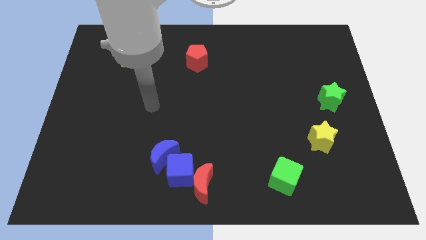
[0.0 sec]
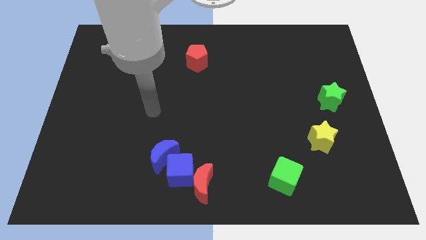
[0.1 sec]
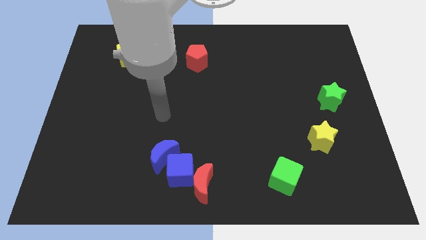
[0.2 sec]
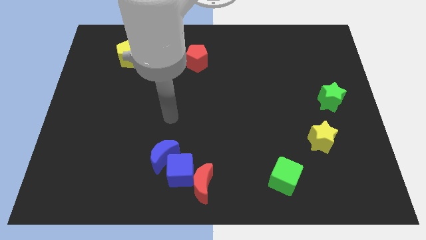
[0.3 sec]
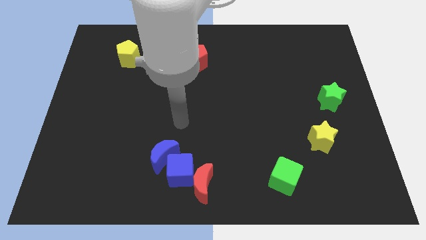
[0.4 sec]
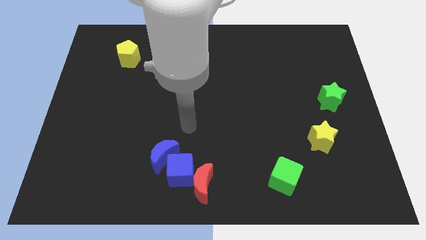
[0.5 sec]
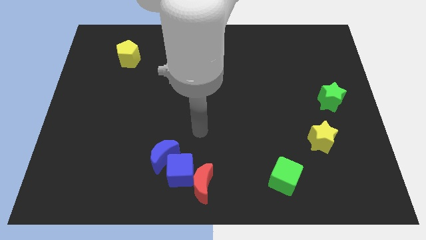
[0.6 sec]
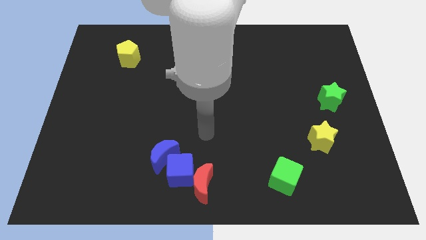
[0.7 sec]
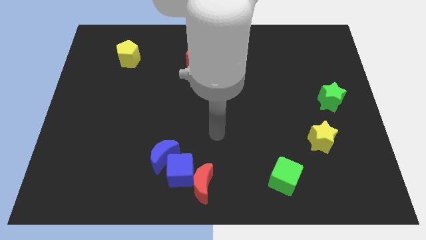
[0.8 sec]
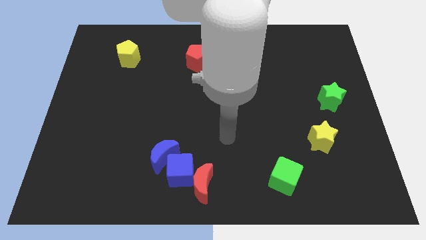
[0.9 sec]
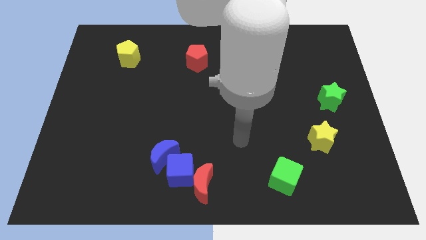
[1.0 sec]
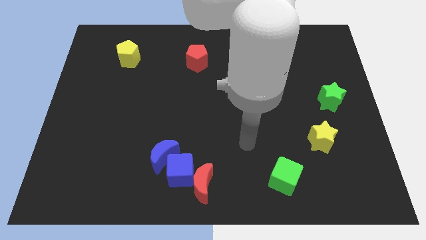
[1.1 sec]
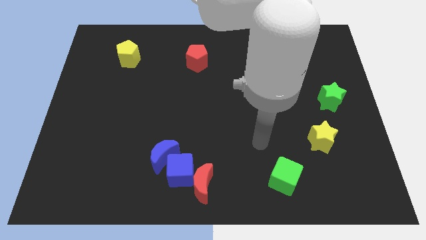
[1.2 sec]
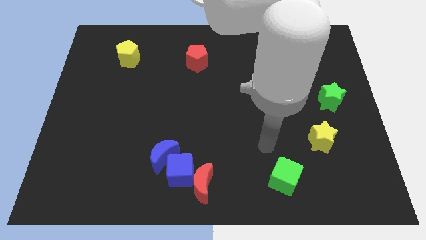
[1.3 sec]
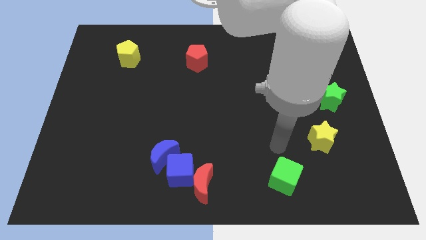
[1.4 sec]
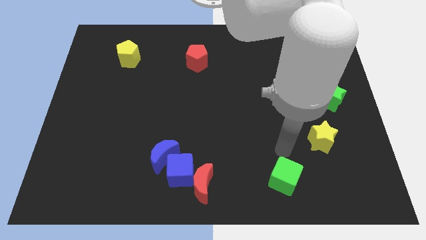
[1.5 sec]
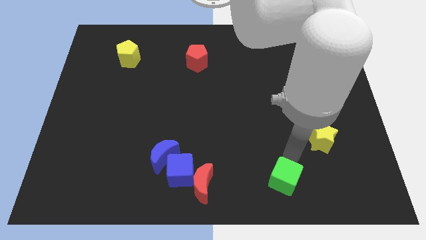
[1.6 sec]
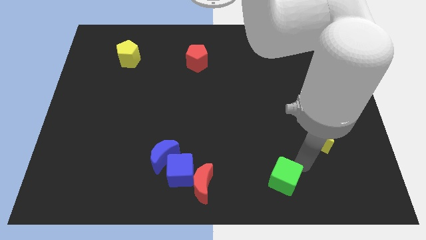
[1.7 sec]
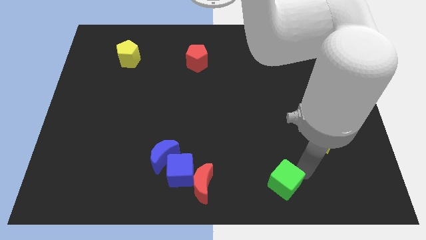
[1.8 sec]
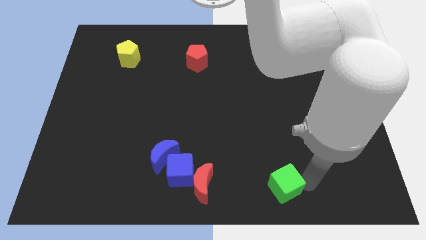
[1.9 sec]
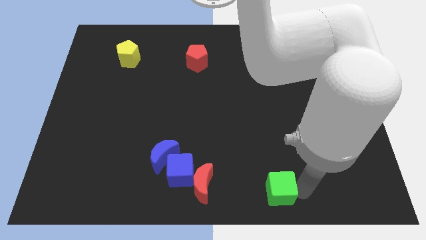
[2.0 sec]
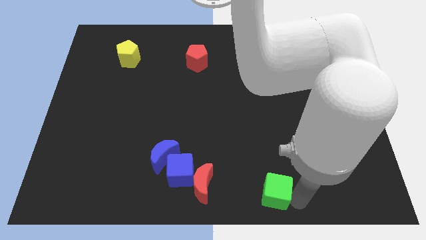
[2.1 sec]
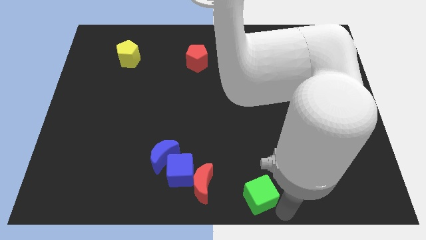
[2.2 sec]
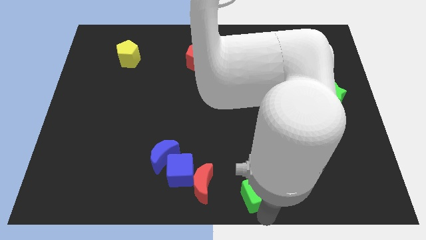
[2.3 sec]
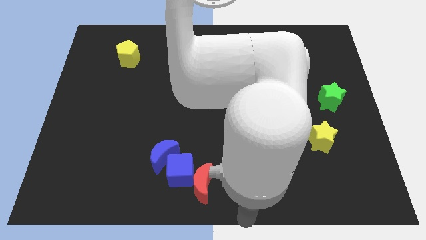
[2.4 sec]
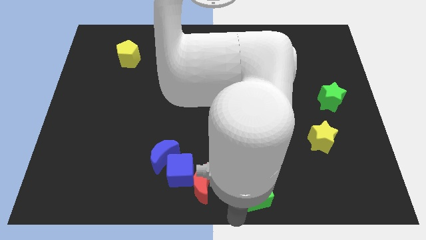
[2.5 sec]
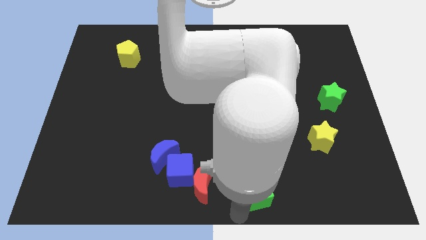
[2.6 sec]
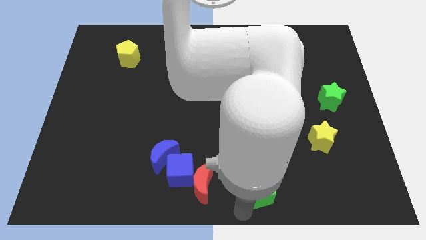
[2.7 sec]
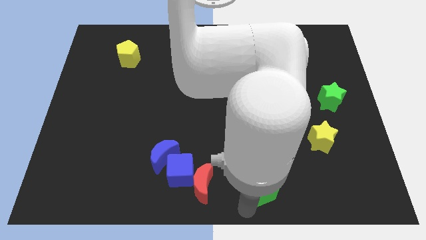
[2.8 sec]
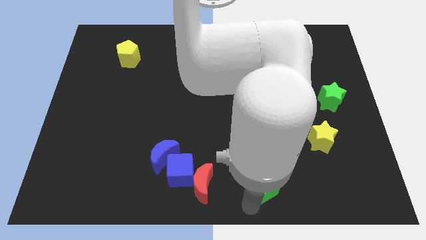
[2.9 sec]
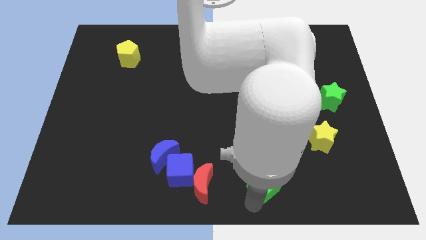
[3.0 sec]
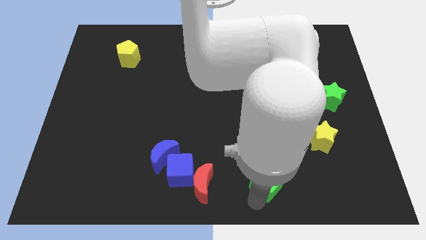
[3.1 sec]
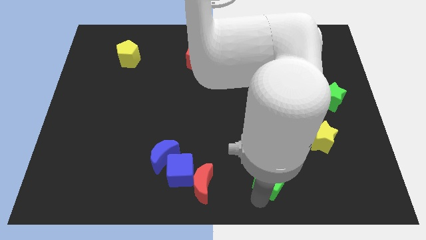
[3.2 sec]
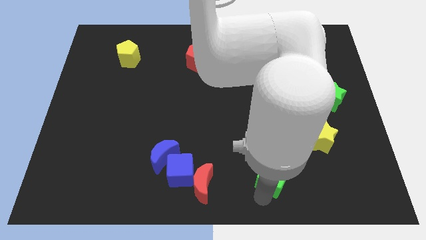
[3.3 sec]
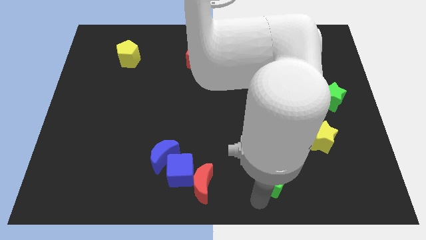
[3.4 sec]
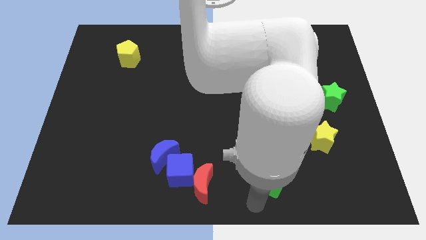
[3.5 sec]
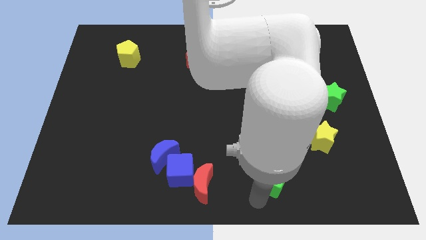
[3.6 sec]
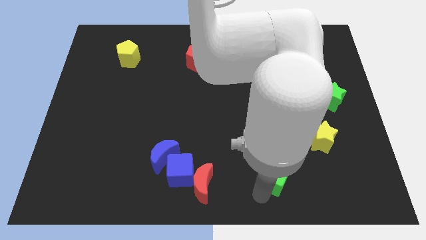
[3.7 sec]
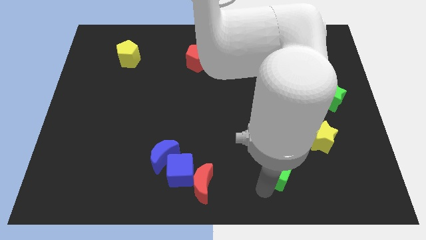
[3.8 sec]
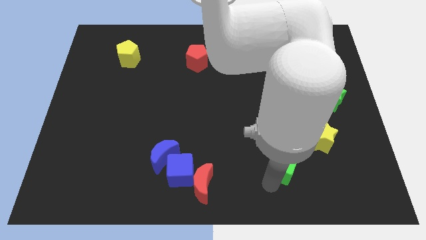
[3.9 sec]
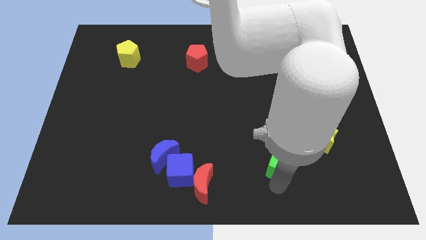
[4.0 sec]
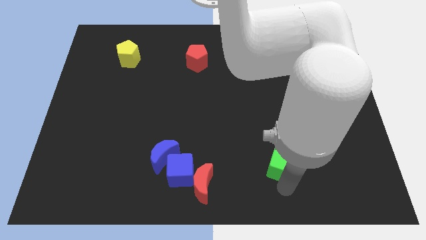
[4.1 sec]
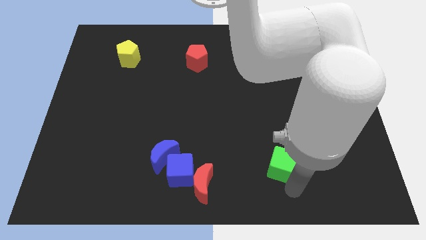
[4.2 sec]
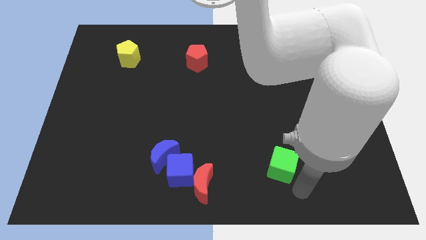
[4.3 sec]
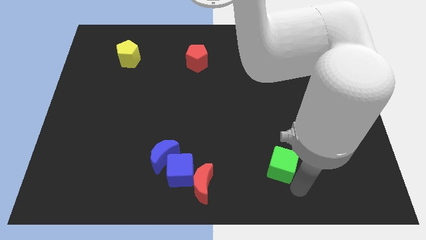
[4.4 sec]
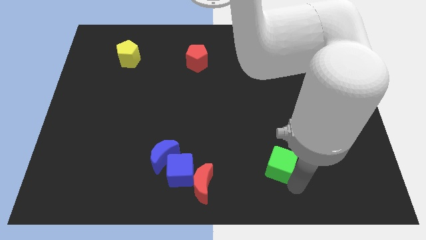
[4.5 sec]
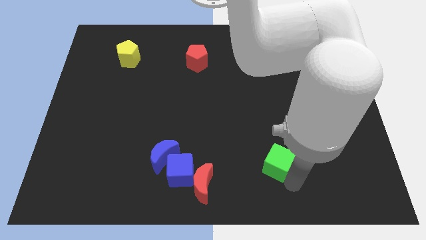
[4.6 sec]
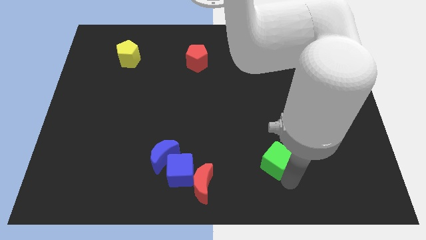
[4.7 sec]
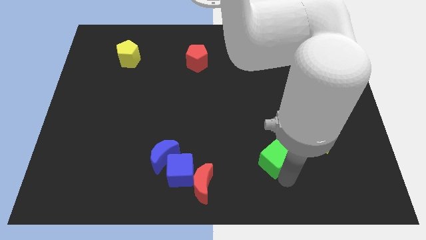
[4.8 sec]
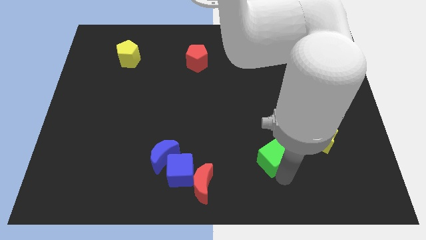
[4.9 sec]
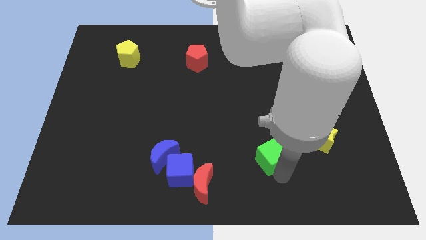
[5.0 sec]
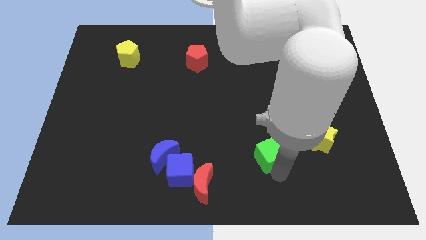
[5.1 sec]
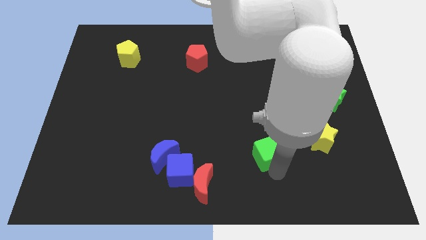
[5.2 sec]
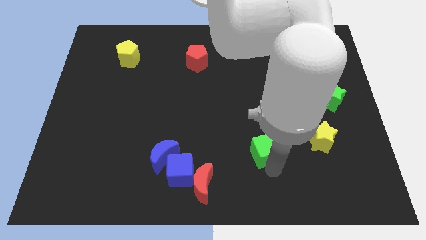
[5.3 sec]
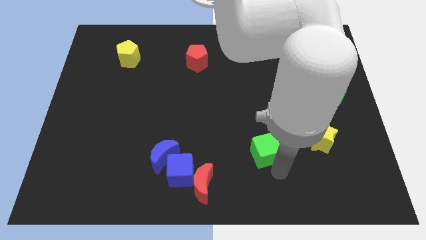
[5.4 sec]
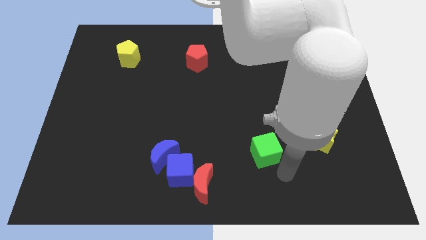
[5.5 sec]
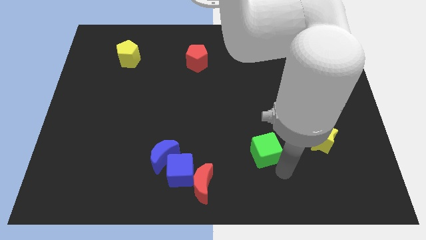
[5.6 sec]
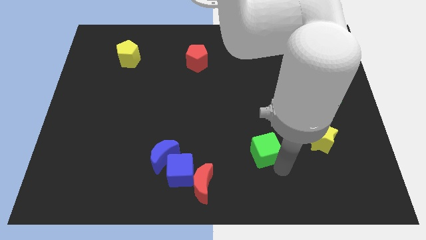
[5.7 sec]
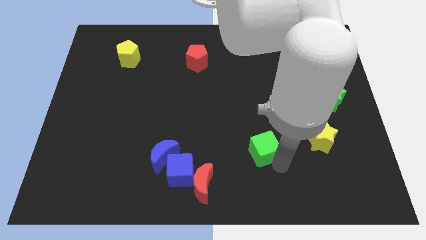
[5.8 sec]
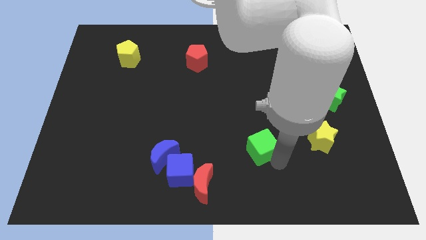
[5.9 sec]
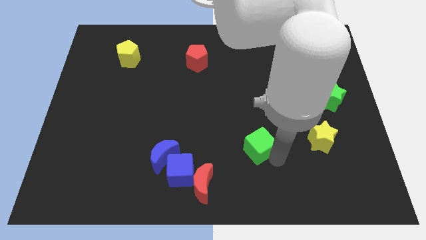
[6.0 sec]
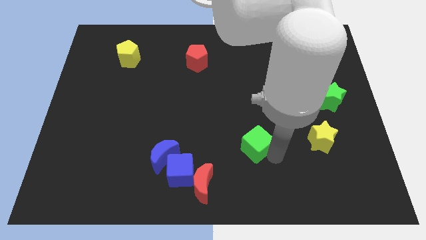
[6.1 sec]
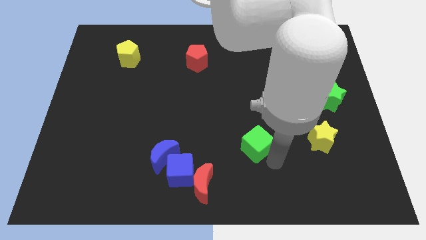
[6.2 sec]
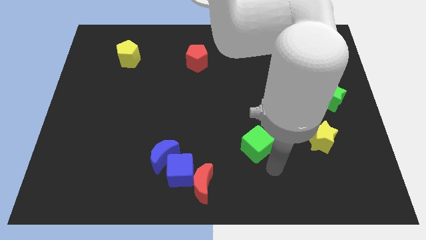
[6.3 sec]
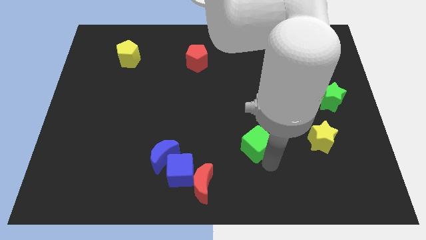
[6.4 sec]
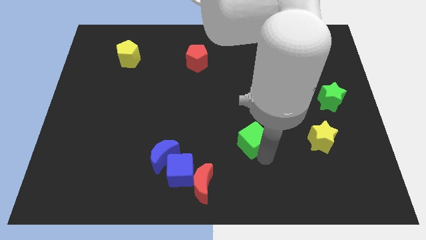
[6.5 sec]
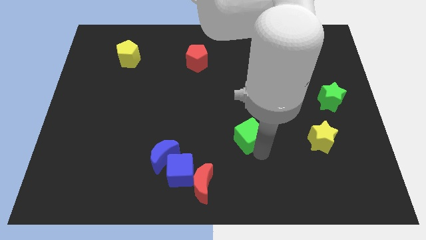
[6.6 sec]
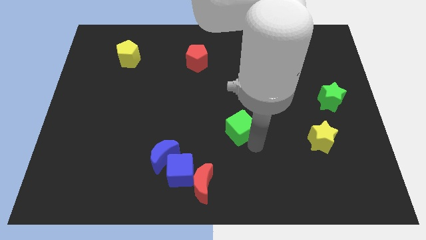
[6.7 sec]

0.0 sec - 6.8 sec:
slide the green cube to the center of the board
